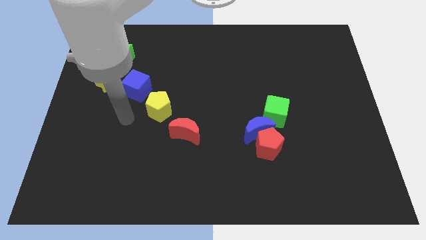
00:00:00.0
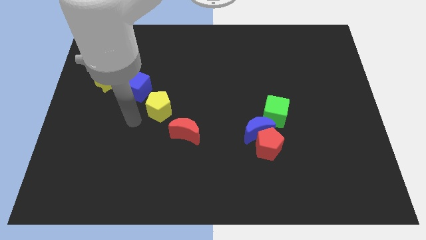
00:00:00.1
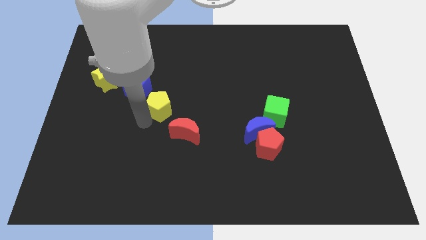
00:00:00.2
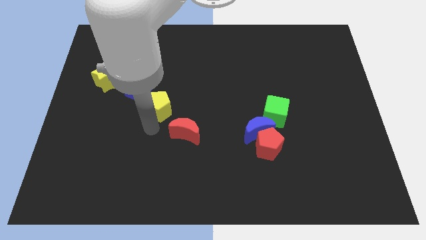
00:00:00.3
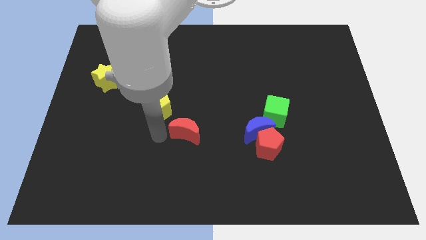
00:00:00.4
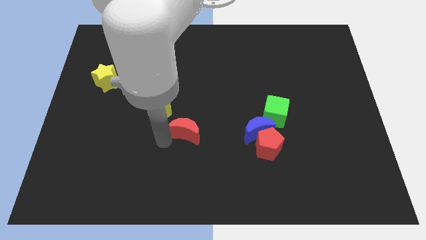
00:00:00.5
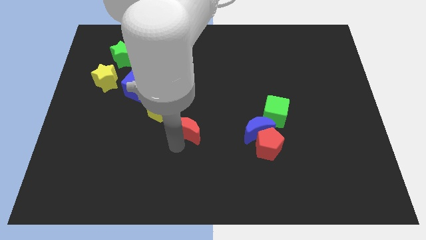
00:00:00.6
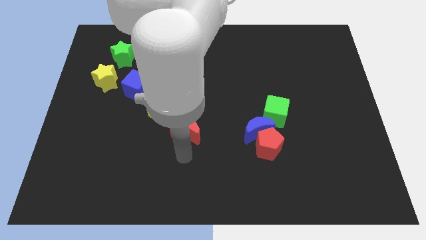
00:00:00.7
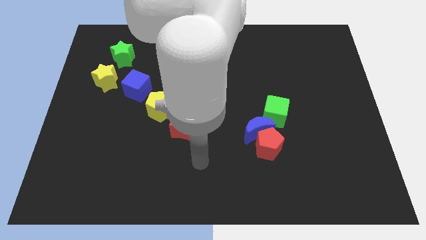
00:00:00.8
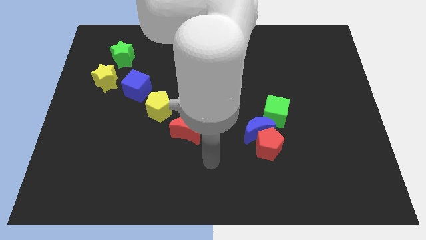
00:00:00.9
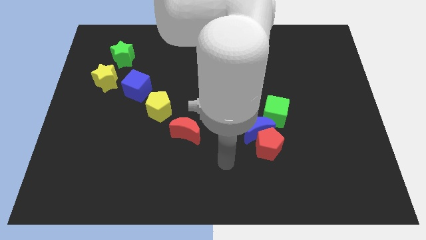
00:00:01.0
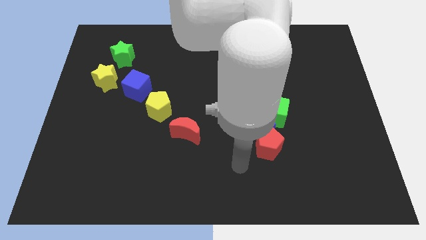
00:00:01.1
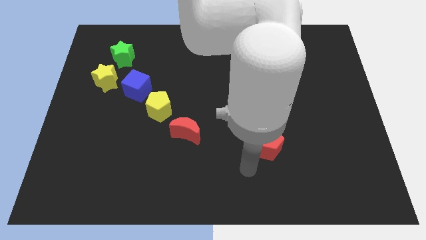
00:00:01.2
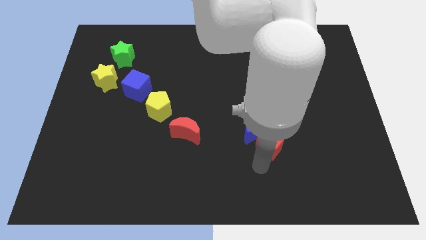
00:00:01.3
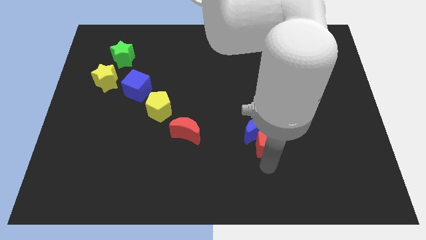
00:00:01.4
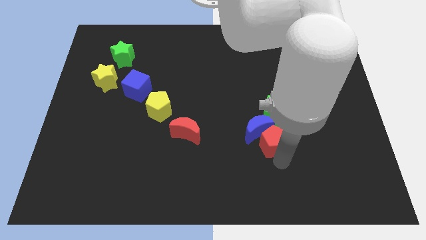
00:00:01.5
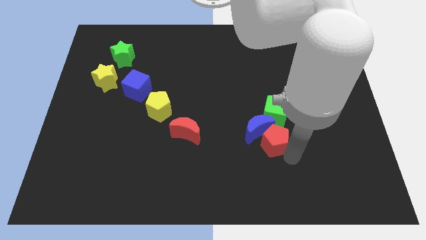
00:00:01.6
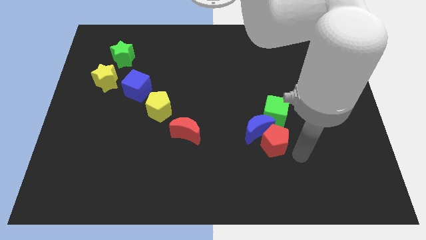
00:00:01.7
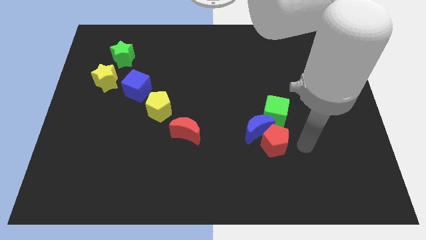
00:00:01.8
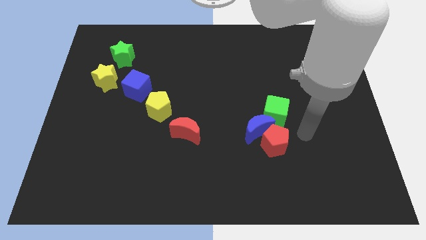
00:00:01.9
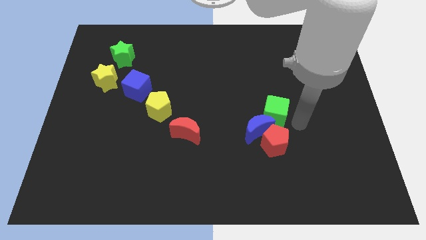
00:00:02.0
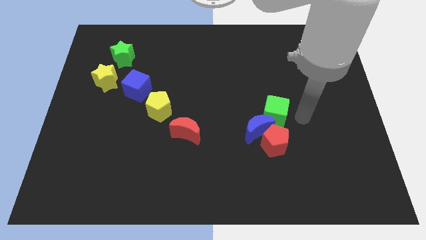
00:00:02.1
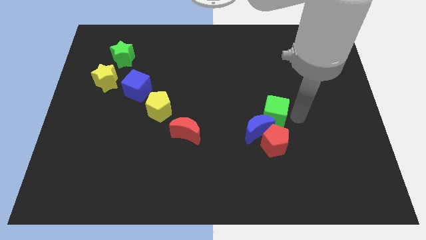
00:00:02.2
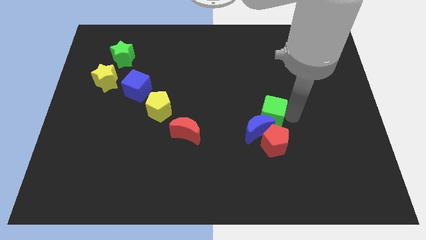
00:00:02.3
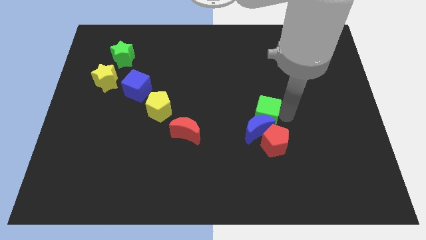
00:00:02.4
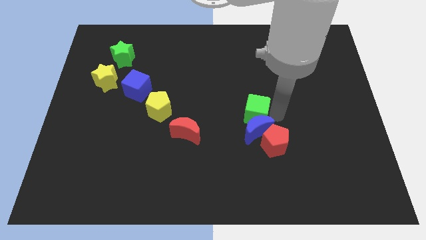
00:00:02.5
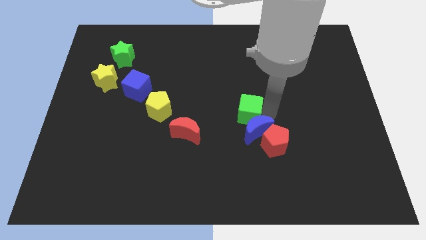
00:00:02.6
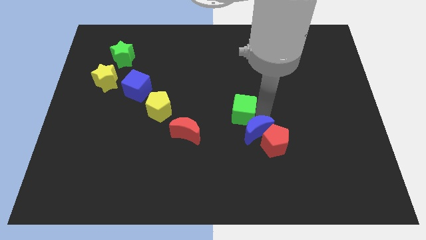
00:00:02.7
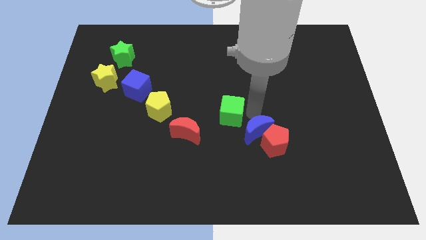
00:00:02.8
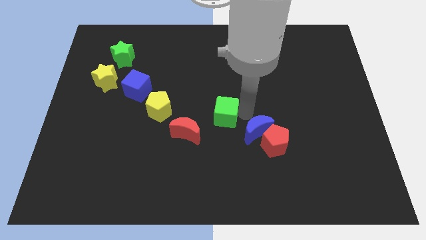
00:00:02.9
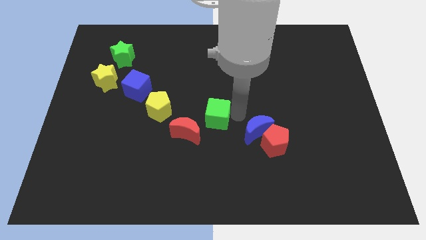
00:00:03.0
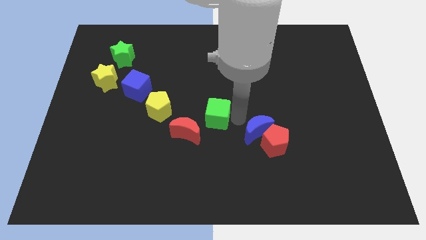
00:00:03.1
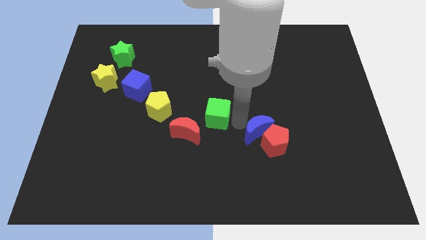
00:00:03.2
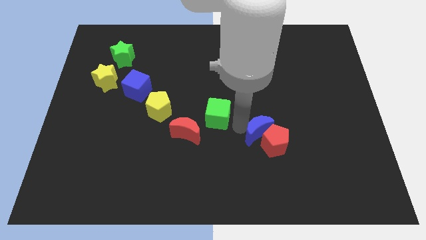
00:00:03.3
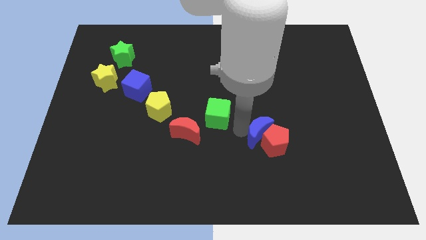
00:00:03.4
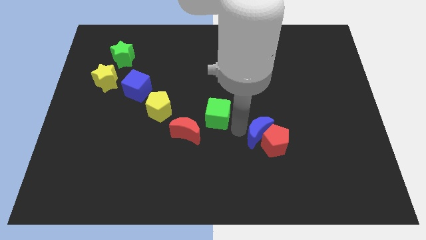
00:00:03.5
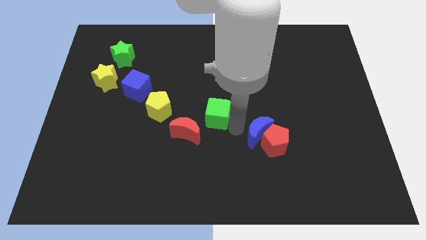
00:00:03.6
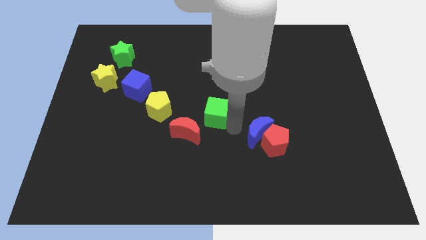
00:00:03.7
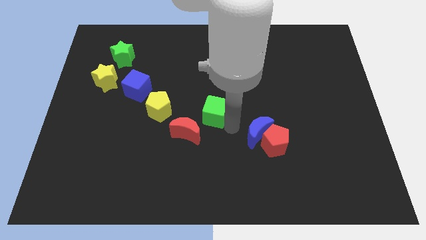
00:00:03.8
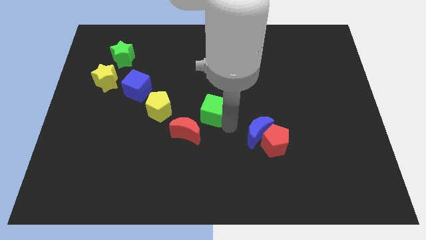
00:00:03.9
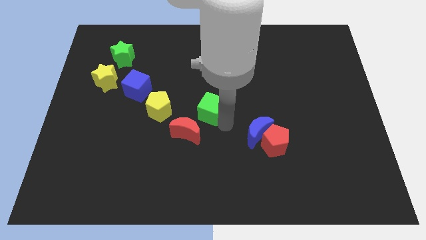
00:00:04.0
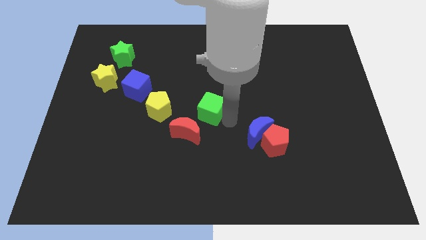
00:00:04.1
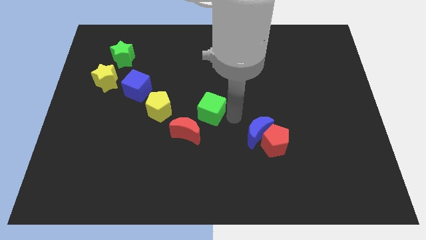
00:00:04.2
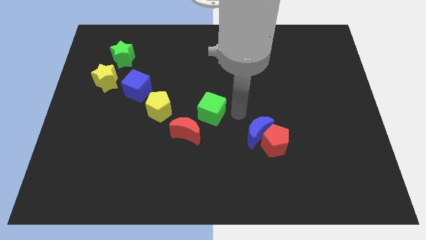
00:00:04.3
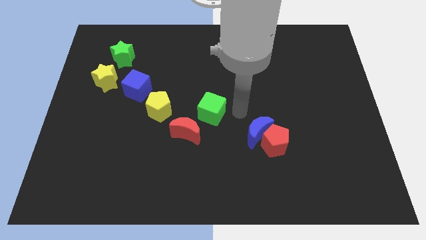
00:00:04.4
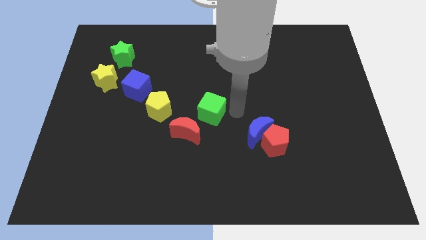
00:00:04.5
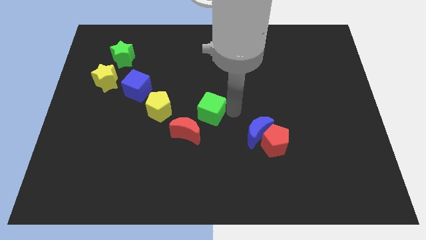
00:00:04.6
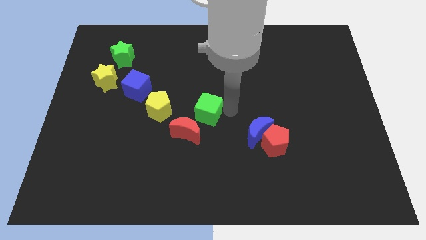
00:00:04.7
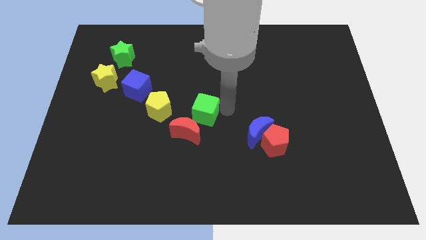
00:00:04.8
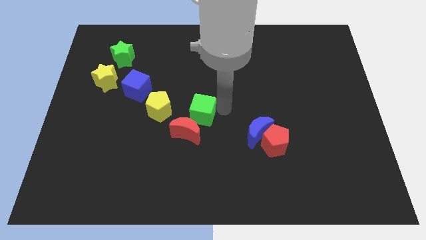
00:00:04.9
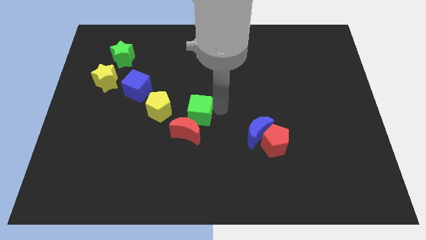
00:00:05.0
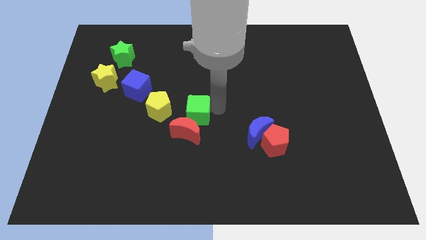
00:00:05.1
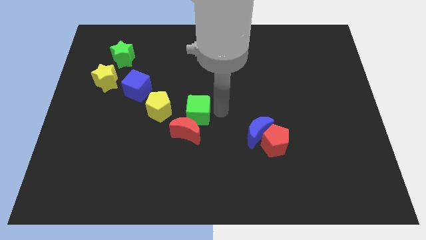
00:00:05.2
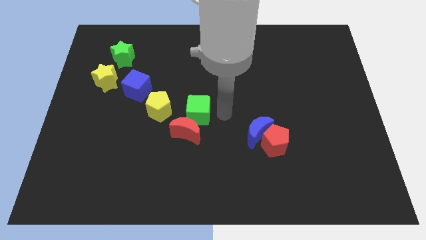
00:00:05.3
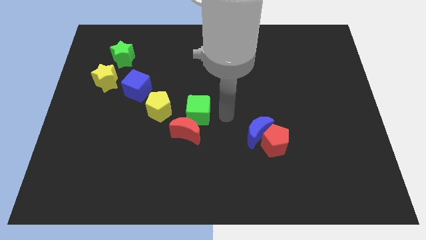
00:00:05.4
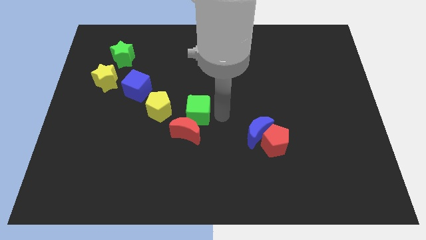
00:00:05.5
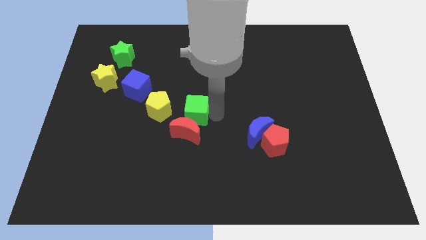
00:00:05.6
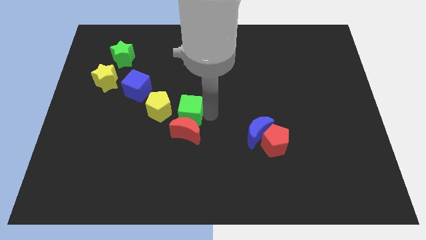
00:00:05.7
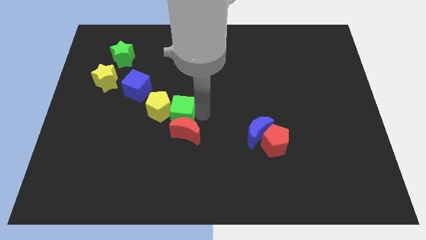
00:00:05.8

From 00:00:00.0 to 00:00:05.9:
slide the green cube next to the yellow pentagon

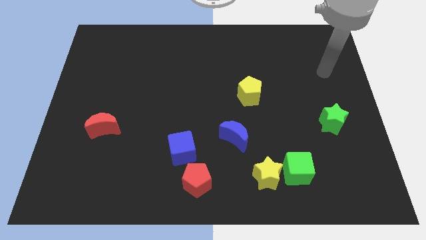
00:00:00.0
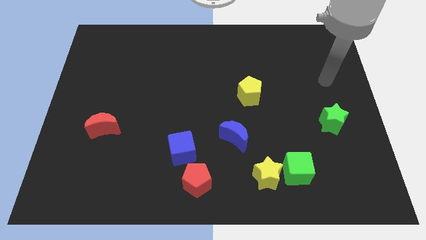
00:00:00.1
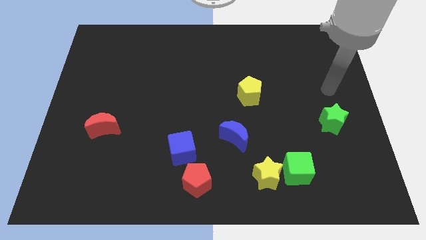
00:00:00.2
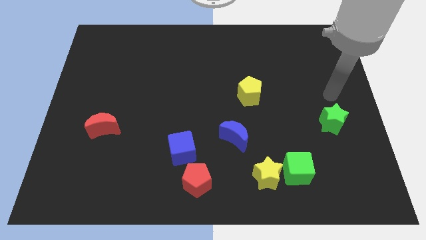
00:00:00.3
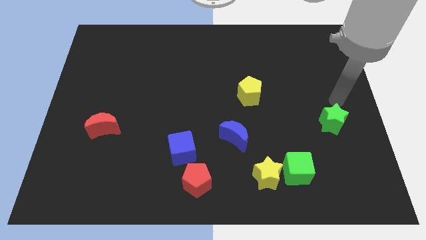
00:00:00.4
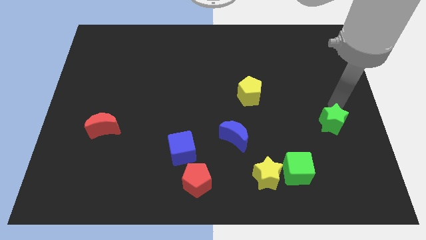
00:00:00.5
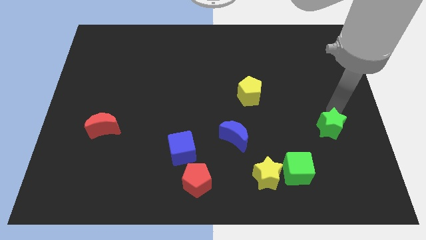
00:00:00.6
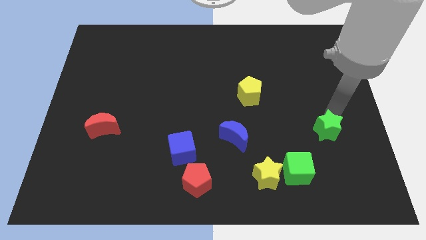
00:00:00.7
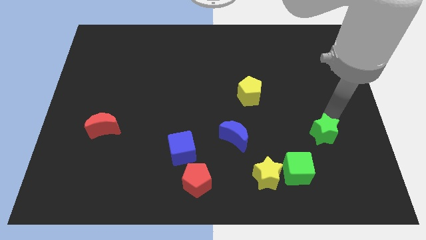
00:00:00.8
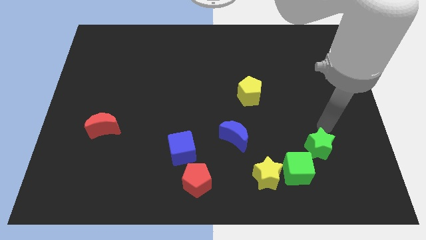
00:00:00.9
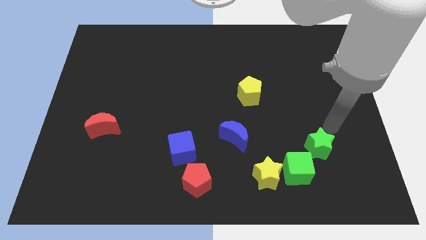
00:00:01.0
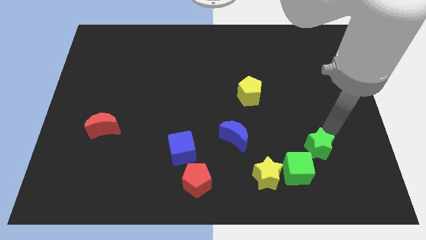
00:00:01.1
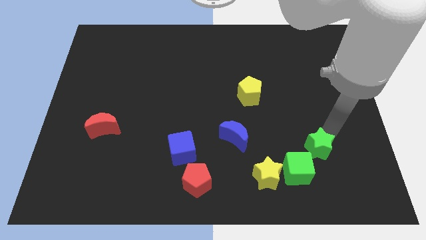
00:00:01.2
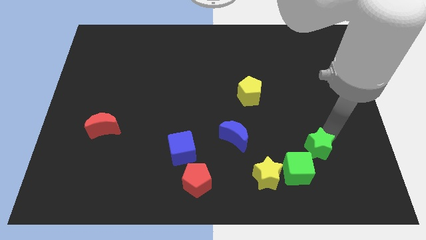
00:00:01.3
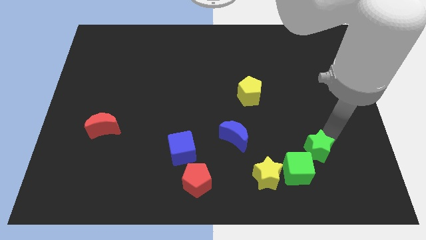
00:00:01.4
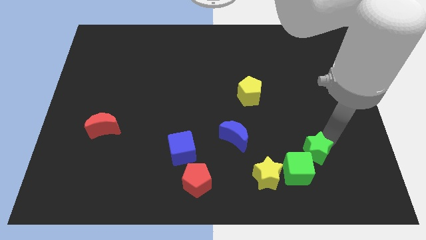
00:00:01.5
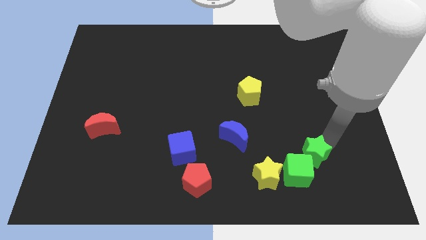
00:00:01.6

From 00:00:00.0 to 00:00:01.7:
push the green star close to the green cube

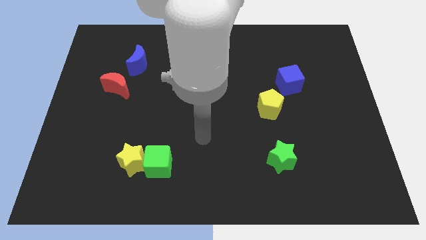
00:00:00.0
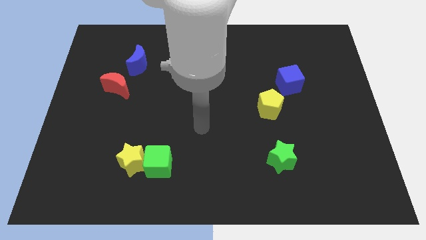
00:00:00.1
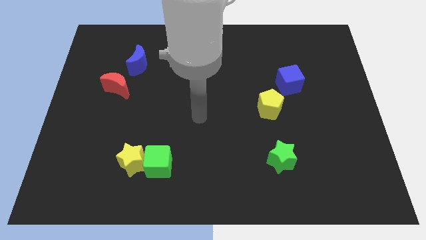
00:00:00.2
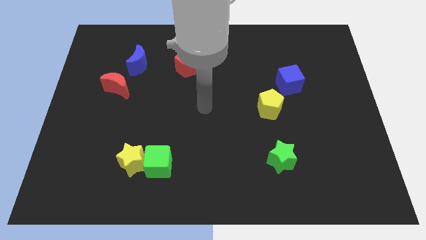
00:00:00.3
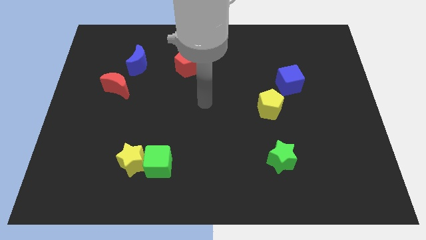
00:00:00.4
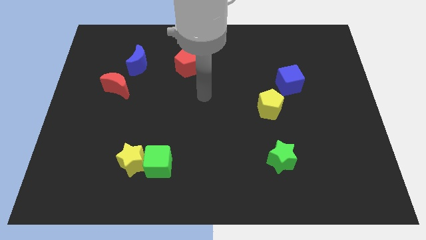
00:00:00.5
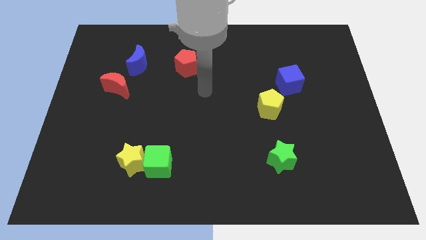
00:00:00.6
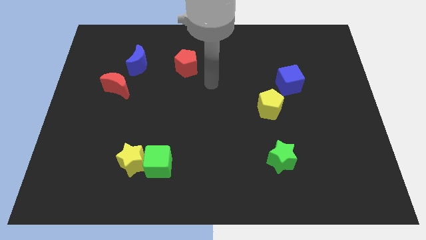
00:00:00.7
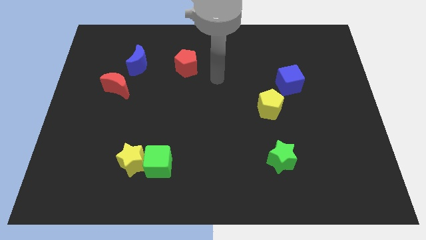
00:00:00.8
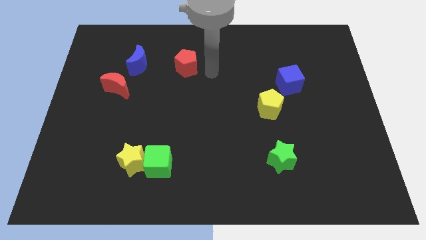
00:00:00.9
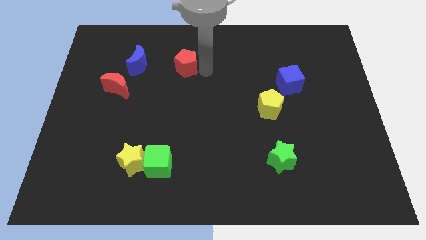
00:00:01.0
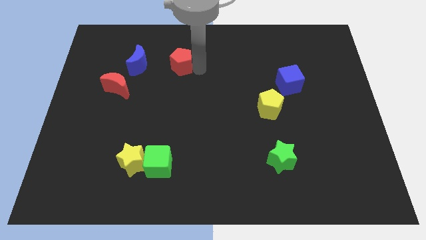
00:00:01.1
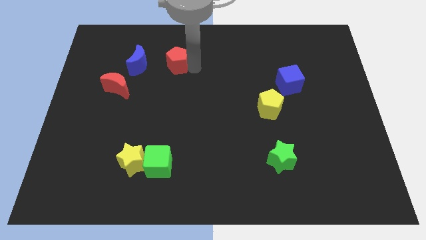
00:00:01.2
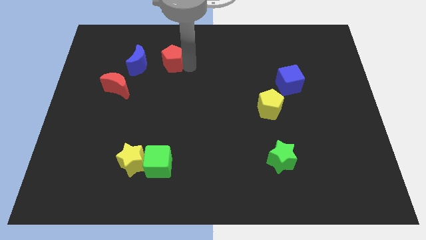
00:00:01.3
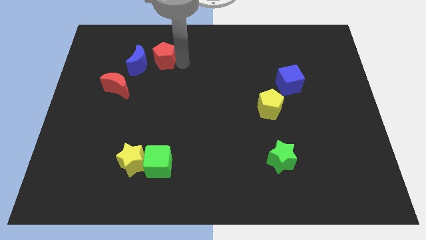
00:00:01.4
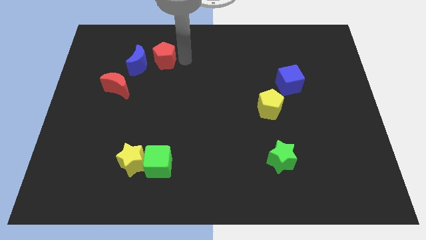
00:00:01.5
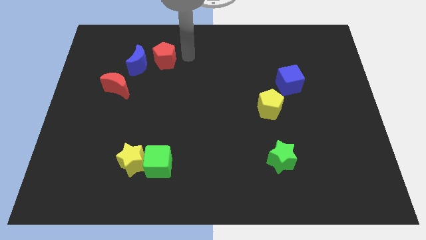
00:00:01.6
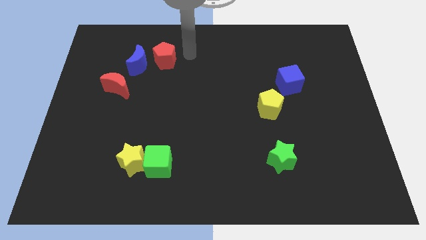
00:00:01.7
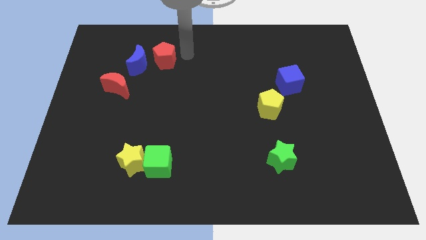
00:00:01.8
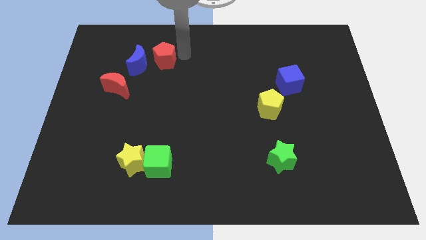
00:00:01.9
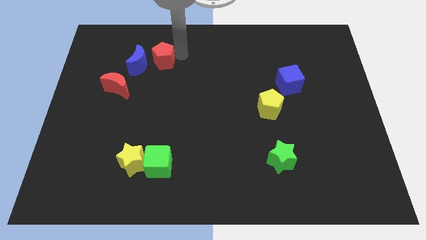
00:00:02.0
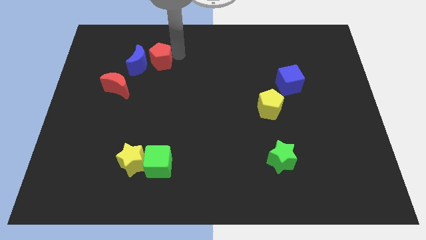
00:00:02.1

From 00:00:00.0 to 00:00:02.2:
push the red pentagon next to the blue moon
